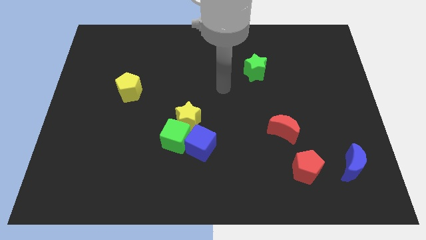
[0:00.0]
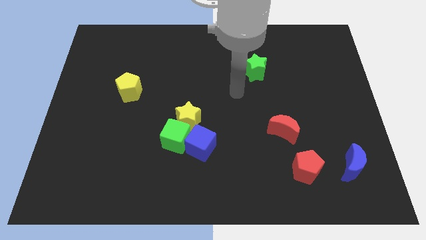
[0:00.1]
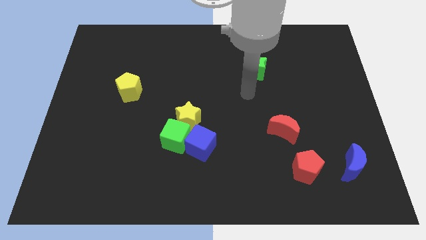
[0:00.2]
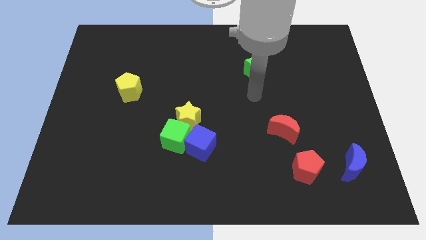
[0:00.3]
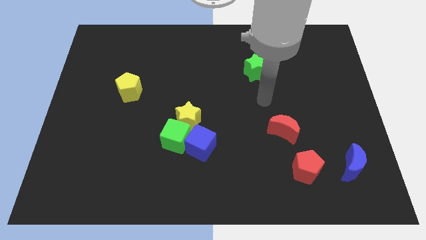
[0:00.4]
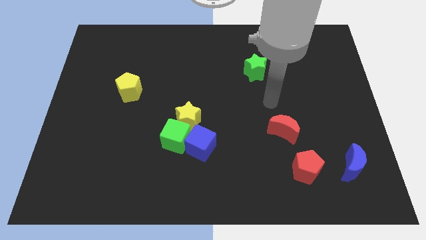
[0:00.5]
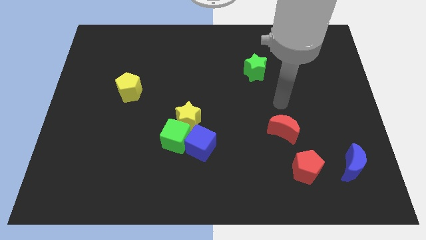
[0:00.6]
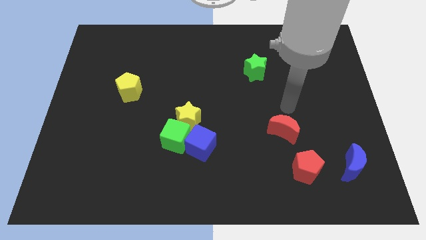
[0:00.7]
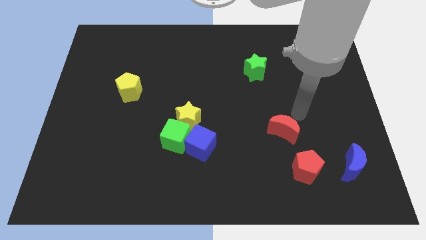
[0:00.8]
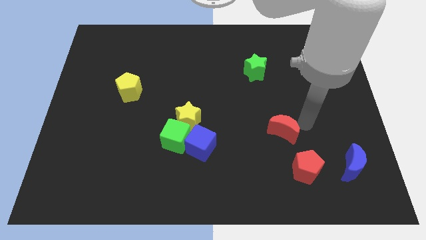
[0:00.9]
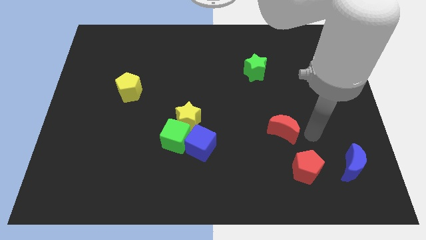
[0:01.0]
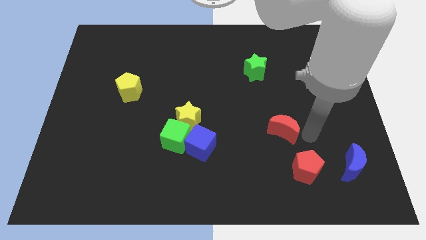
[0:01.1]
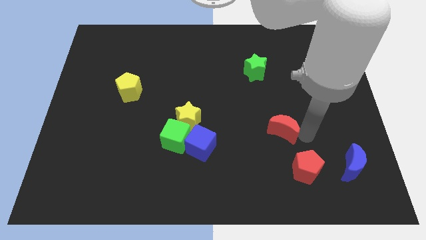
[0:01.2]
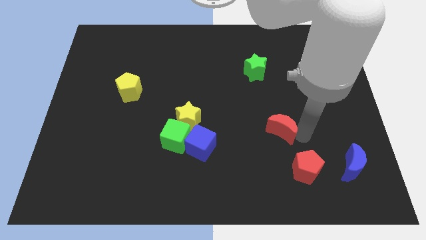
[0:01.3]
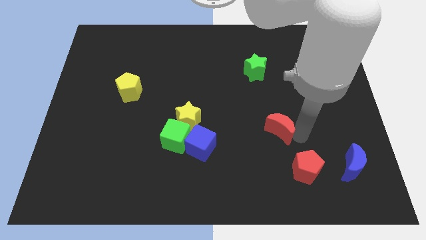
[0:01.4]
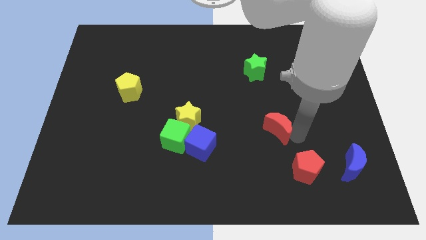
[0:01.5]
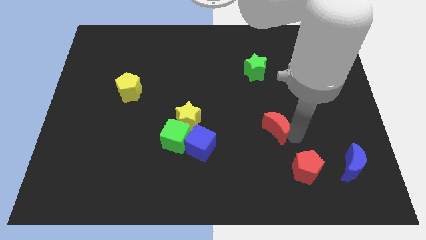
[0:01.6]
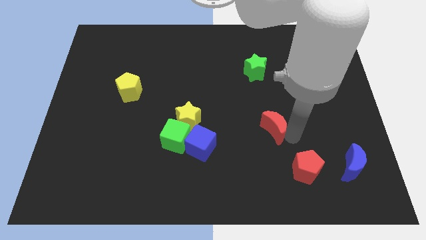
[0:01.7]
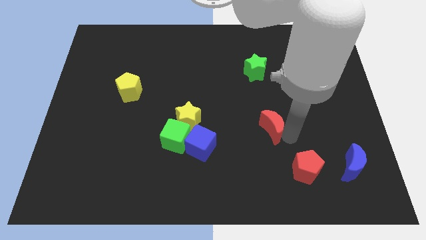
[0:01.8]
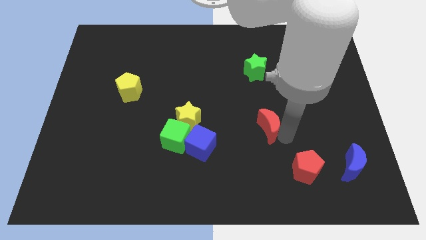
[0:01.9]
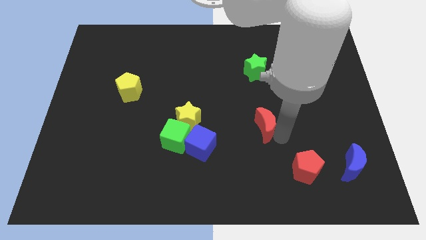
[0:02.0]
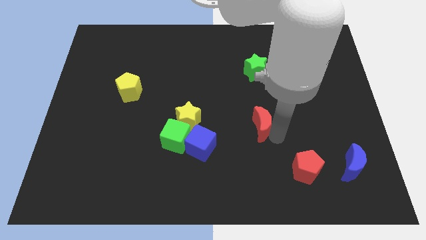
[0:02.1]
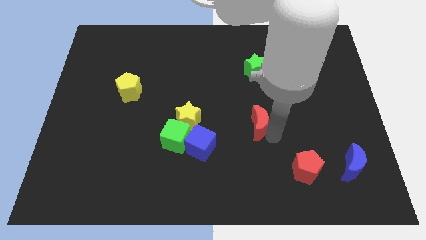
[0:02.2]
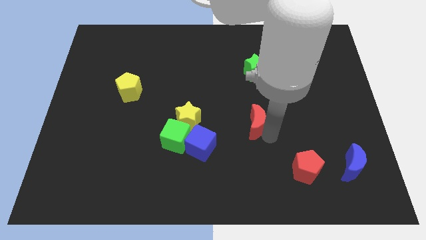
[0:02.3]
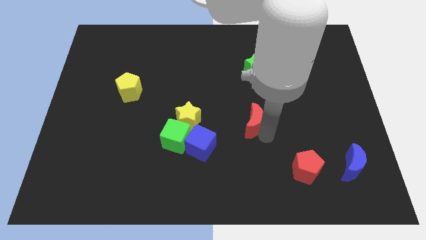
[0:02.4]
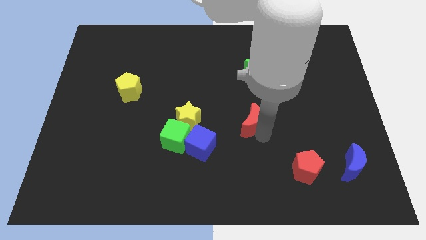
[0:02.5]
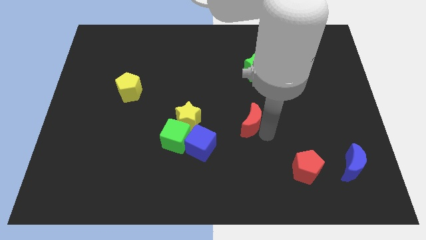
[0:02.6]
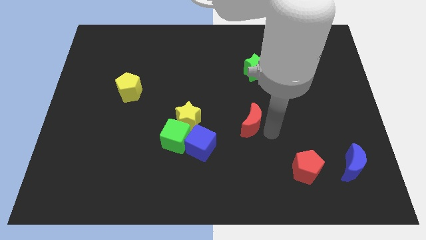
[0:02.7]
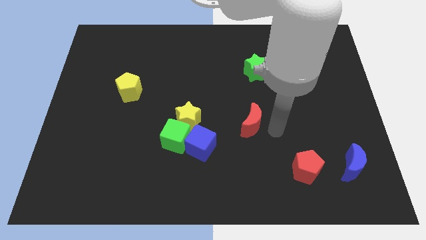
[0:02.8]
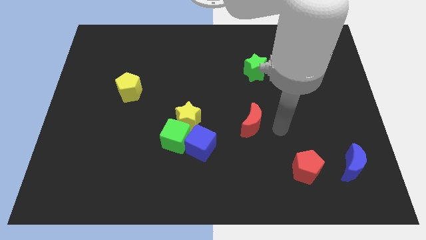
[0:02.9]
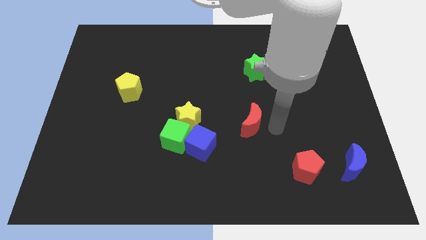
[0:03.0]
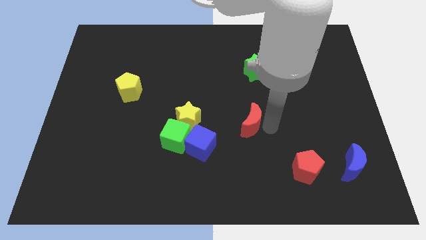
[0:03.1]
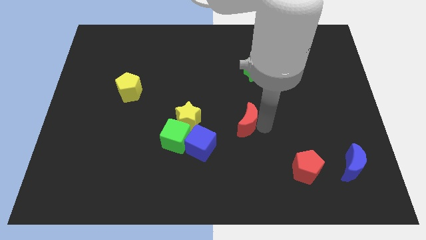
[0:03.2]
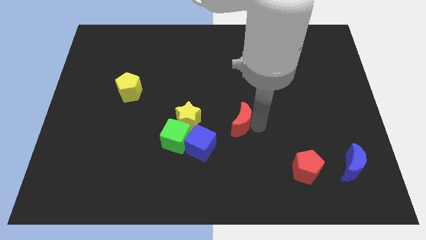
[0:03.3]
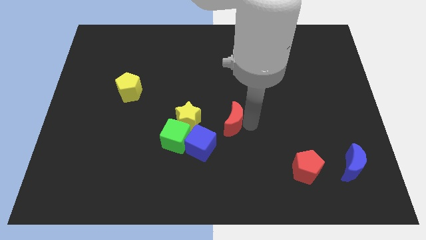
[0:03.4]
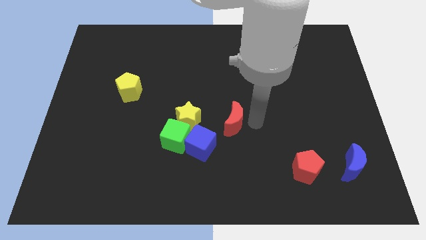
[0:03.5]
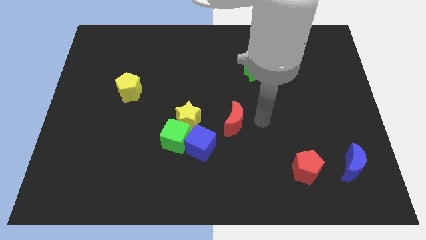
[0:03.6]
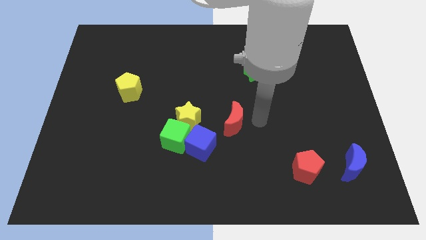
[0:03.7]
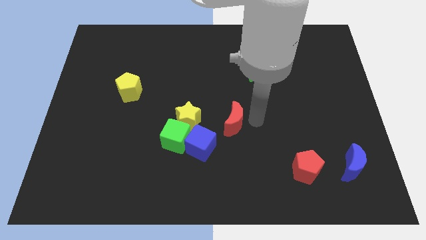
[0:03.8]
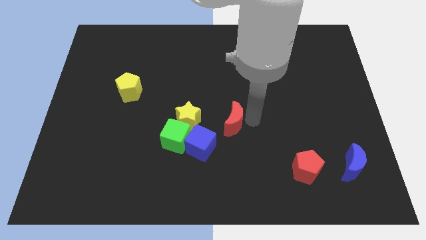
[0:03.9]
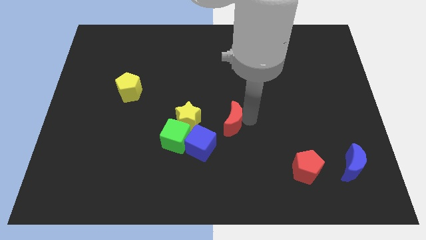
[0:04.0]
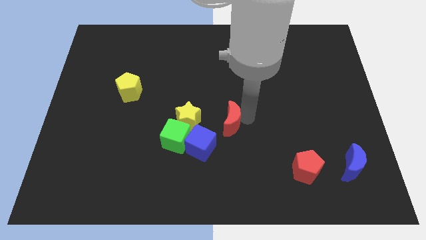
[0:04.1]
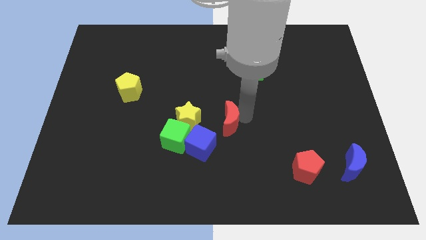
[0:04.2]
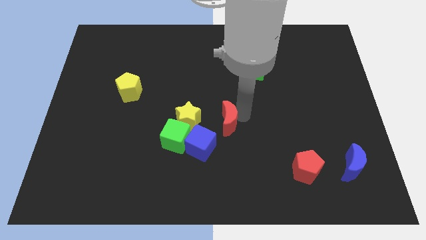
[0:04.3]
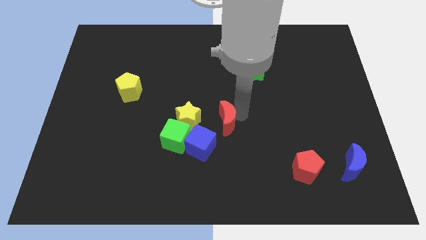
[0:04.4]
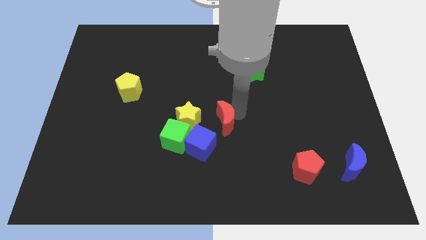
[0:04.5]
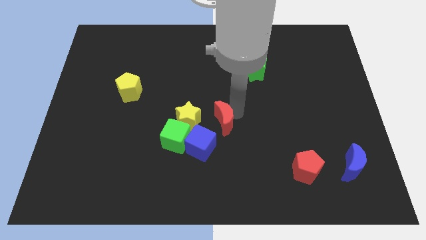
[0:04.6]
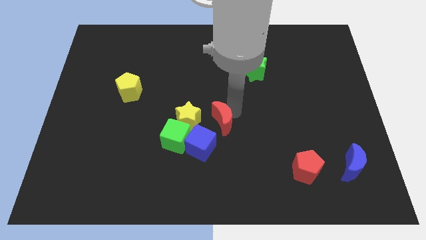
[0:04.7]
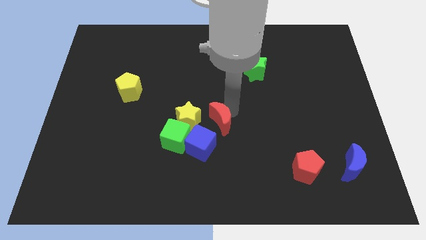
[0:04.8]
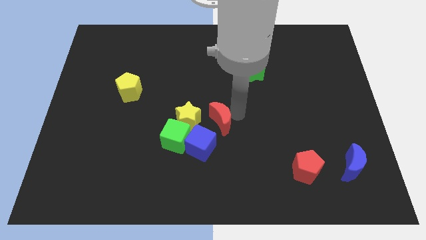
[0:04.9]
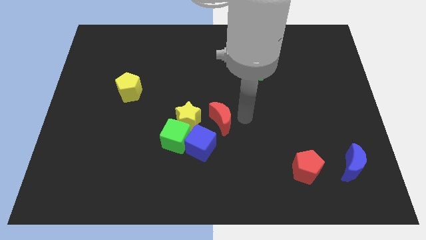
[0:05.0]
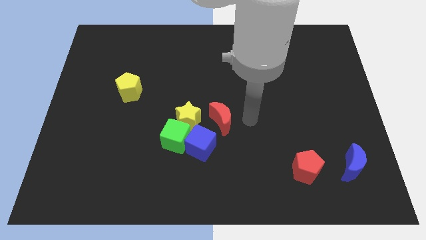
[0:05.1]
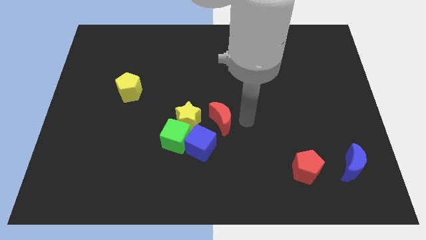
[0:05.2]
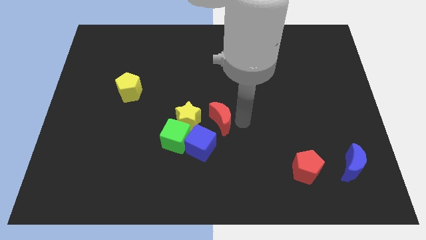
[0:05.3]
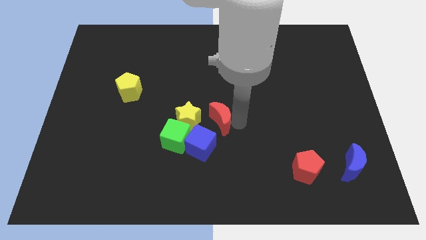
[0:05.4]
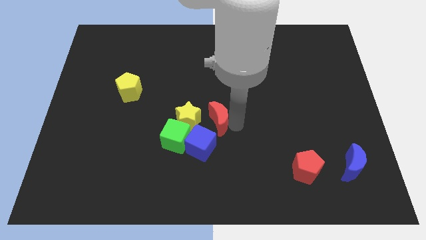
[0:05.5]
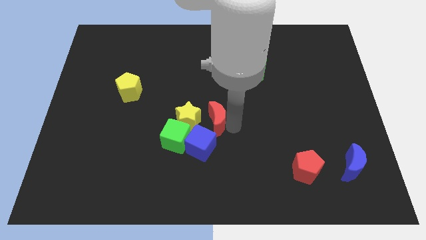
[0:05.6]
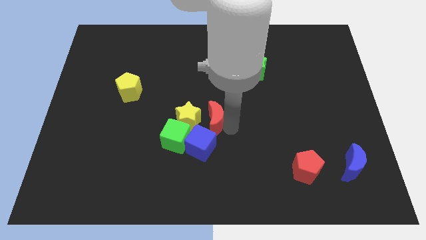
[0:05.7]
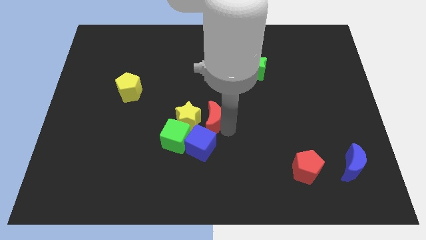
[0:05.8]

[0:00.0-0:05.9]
slide the red moon next to the yellow star
